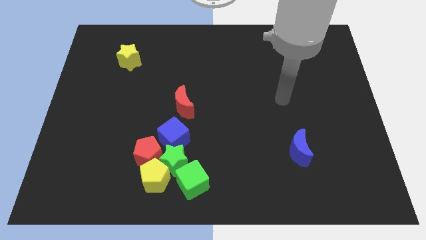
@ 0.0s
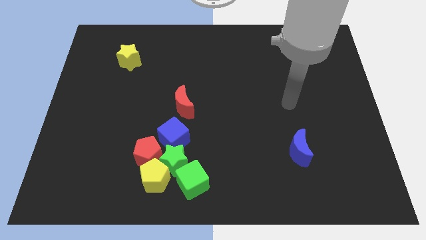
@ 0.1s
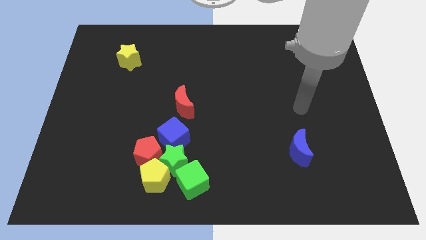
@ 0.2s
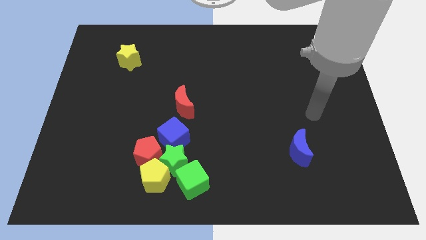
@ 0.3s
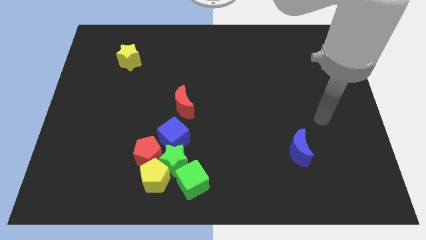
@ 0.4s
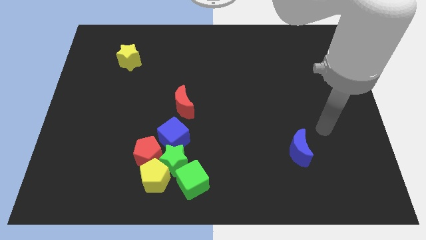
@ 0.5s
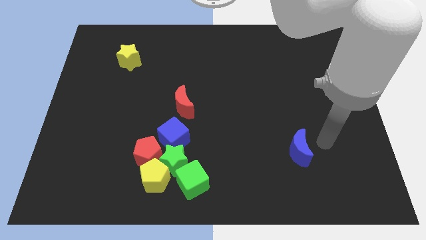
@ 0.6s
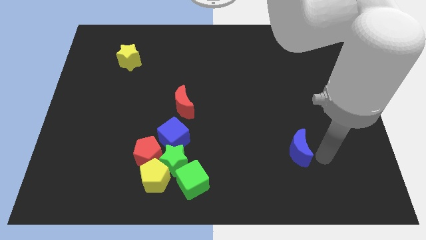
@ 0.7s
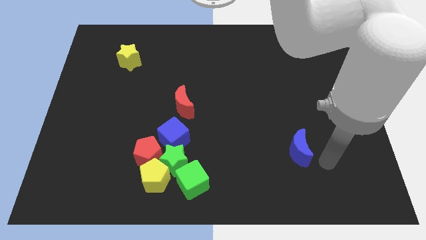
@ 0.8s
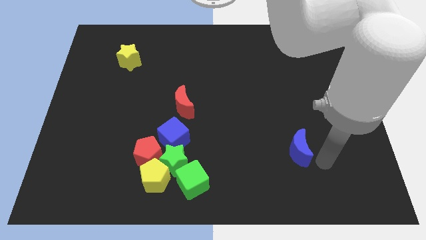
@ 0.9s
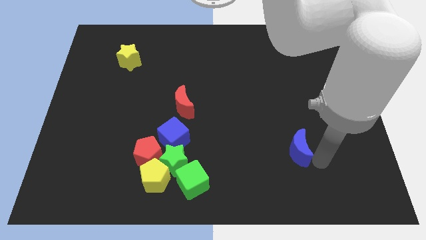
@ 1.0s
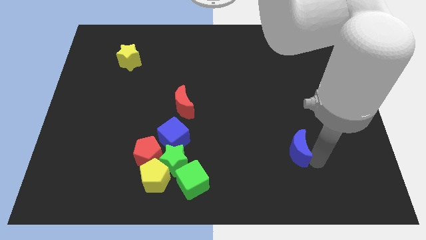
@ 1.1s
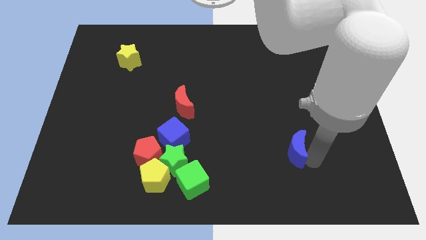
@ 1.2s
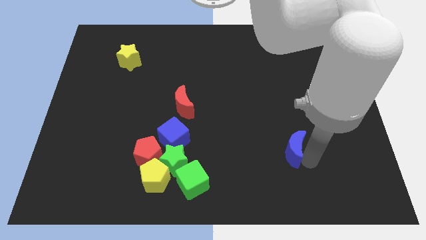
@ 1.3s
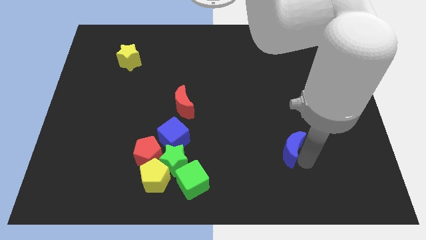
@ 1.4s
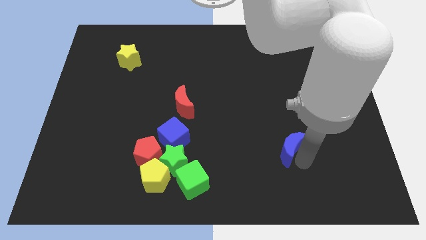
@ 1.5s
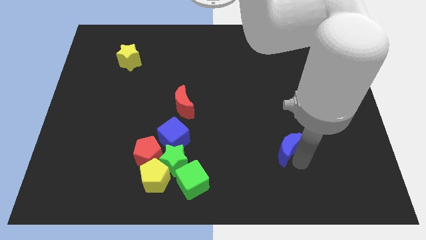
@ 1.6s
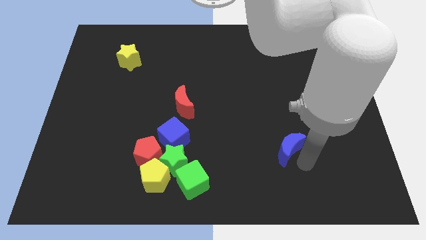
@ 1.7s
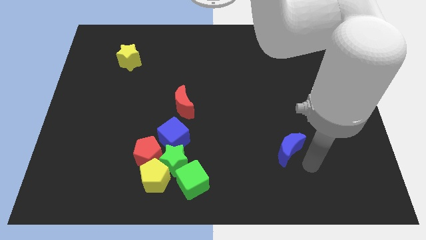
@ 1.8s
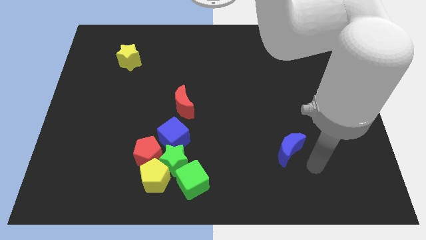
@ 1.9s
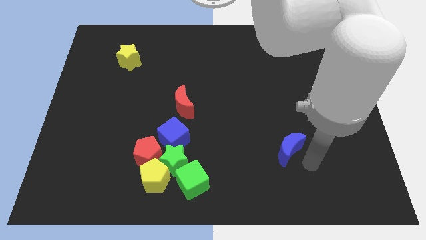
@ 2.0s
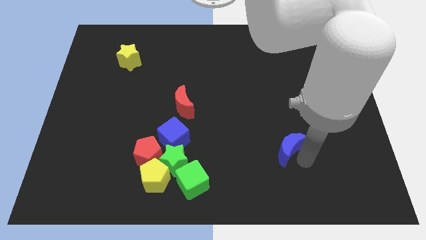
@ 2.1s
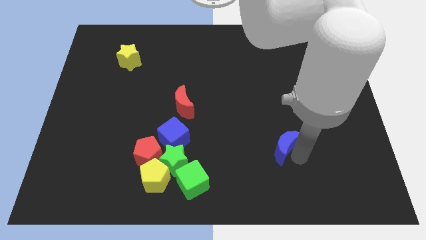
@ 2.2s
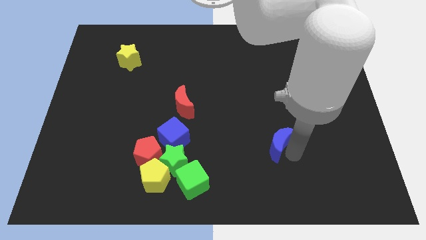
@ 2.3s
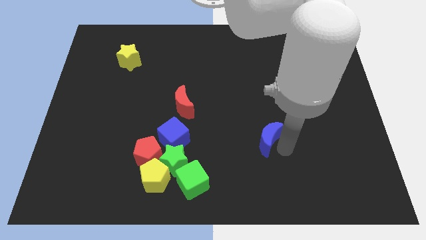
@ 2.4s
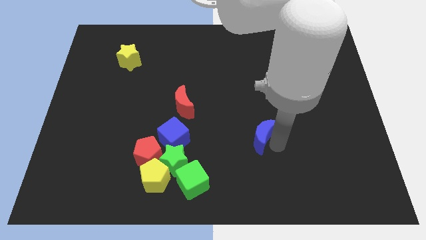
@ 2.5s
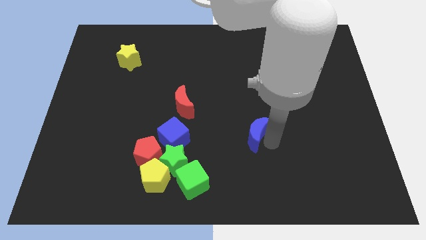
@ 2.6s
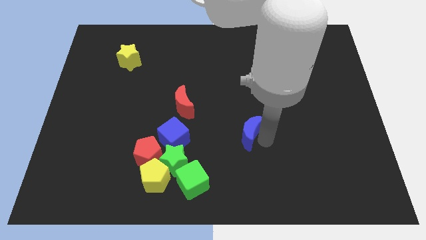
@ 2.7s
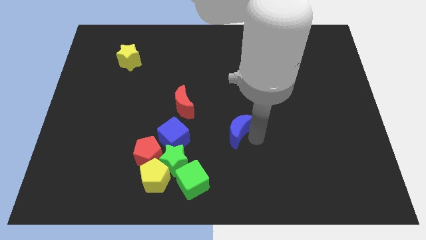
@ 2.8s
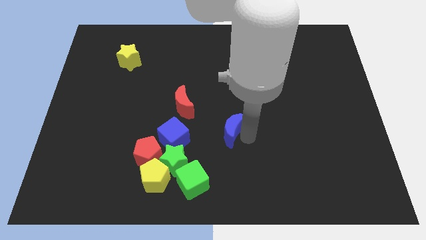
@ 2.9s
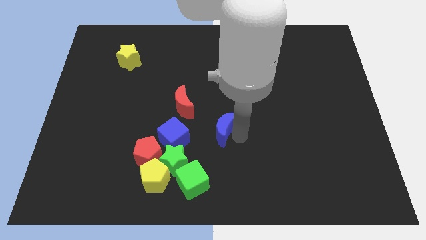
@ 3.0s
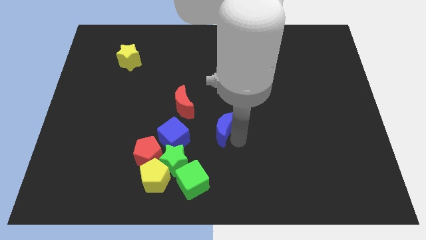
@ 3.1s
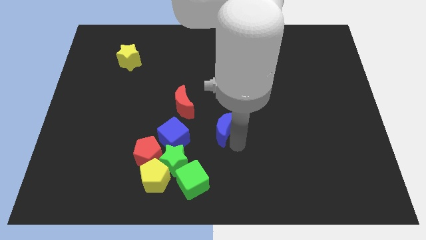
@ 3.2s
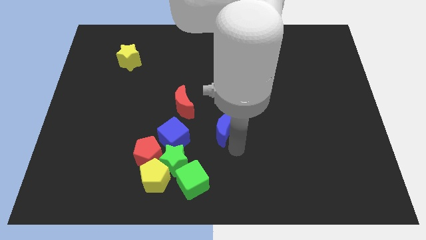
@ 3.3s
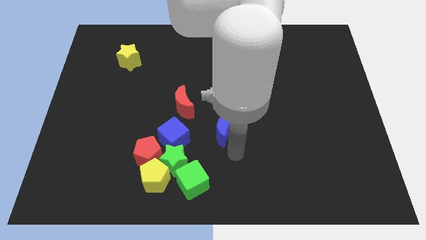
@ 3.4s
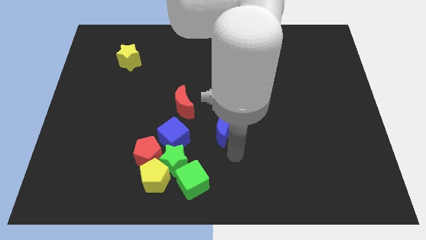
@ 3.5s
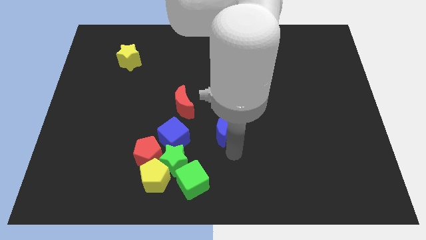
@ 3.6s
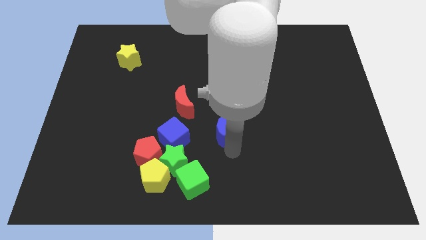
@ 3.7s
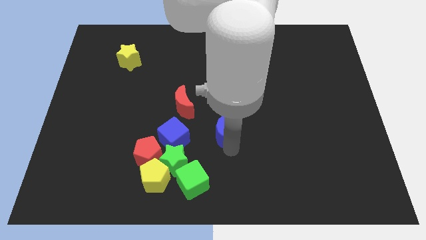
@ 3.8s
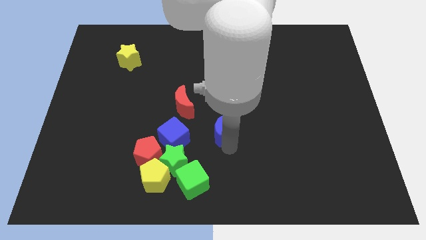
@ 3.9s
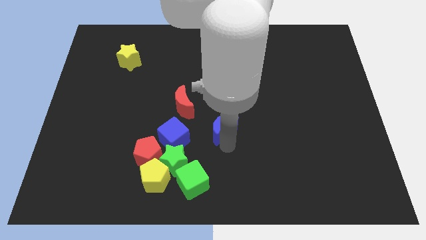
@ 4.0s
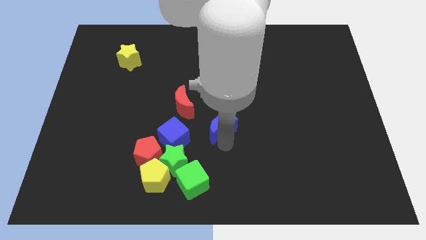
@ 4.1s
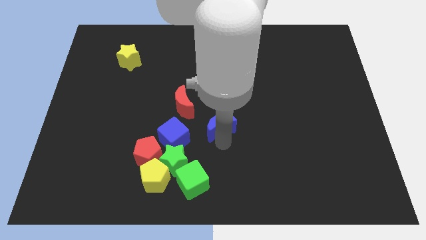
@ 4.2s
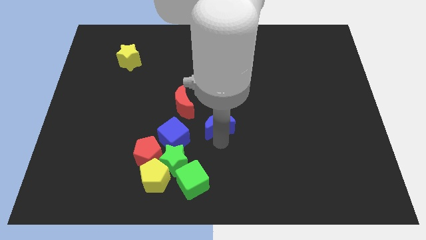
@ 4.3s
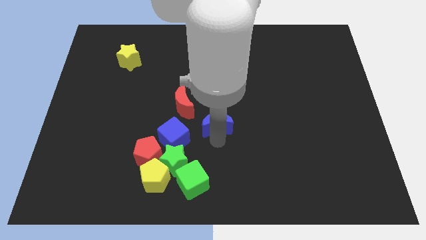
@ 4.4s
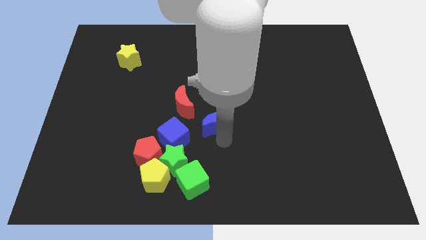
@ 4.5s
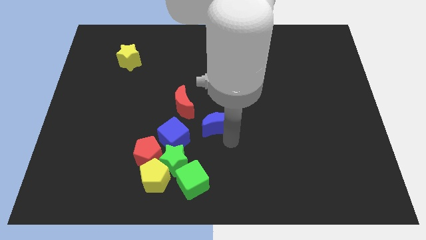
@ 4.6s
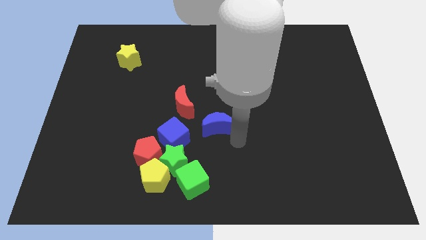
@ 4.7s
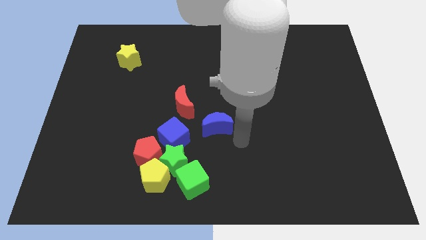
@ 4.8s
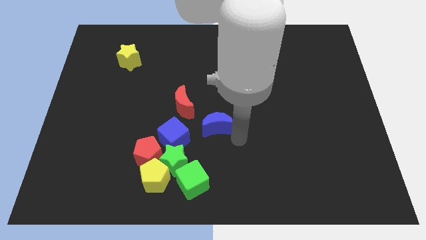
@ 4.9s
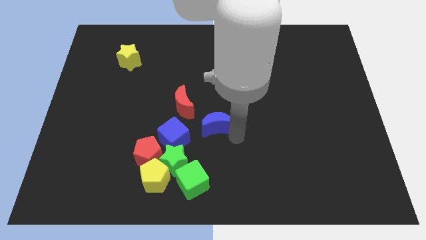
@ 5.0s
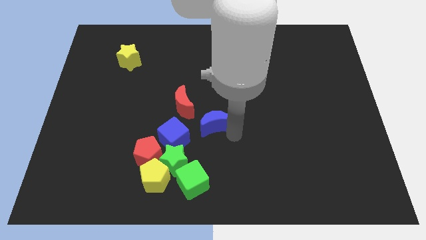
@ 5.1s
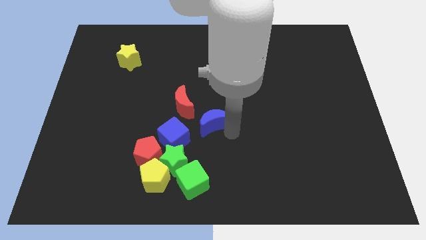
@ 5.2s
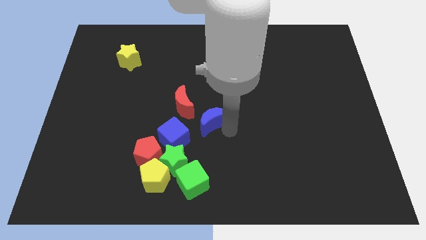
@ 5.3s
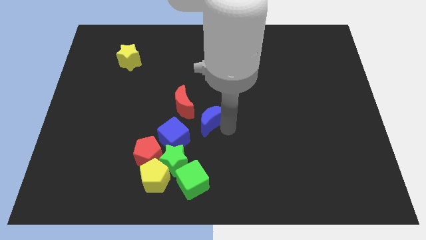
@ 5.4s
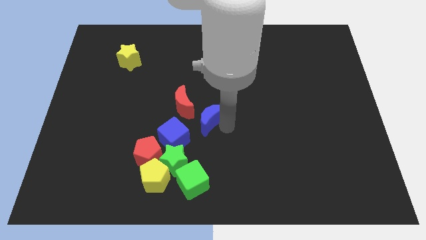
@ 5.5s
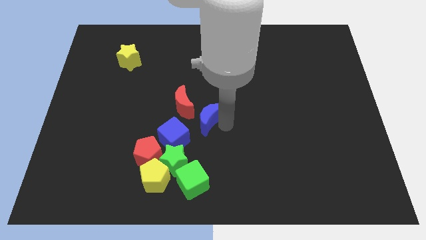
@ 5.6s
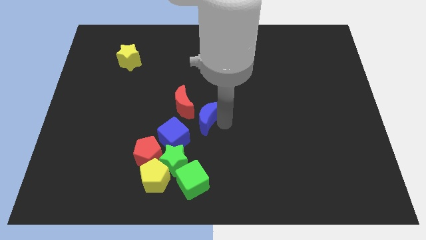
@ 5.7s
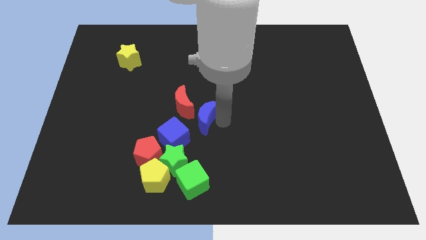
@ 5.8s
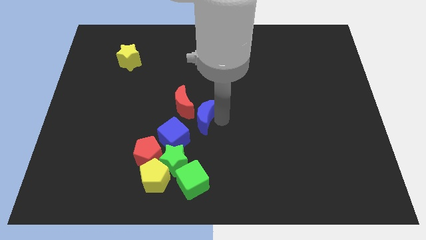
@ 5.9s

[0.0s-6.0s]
put the blue moon close to the red moon

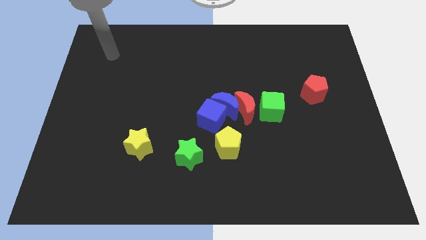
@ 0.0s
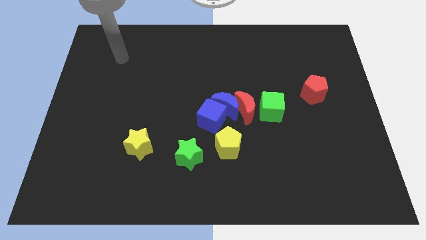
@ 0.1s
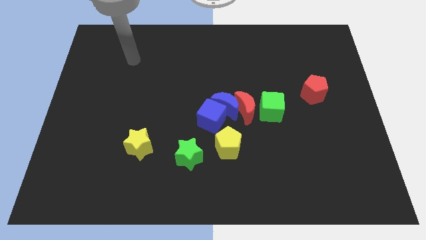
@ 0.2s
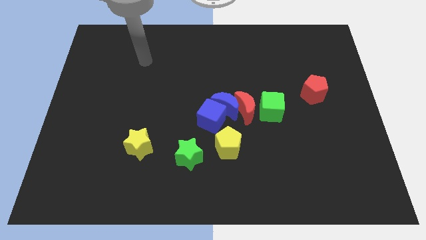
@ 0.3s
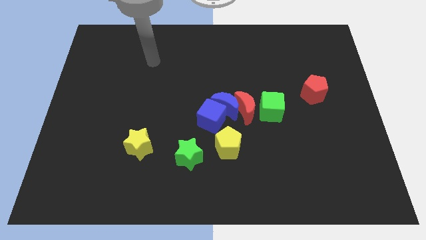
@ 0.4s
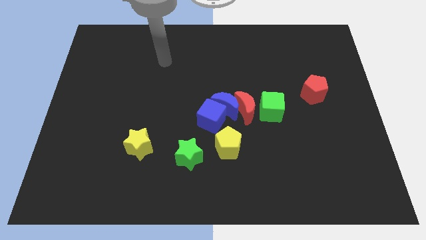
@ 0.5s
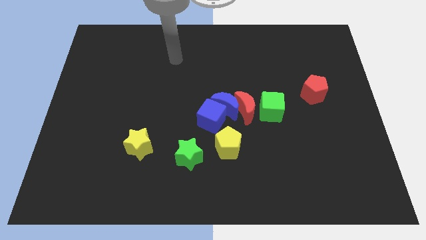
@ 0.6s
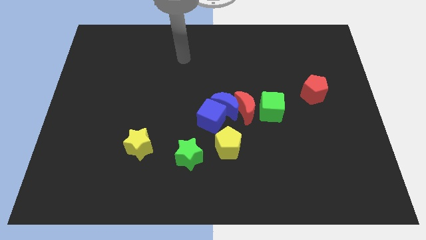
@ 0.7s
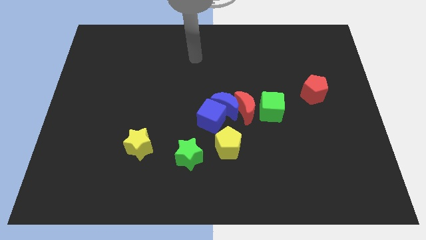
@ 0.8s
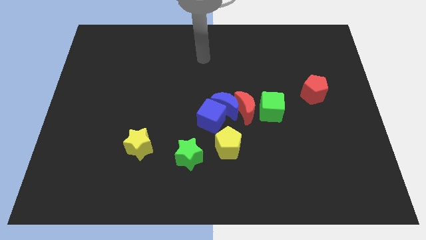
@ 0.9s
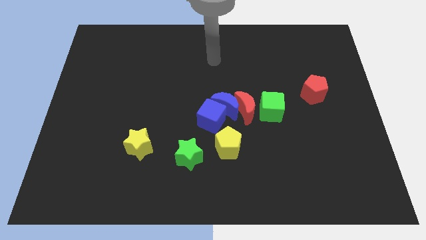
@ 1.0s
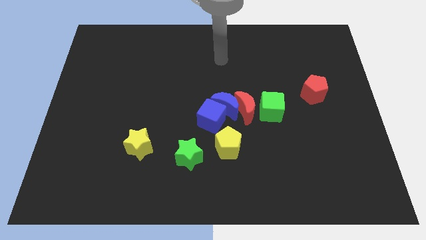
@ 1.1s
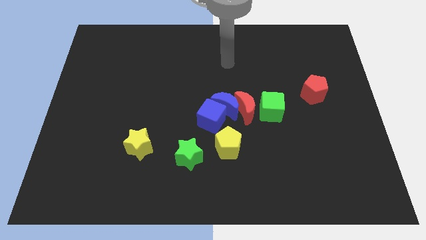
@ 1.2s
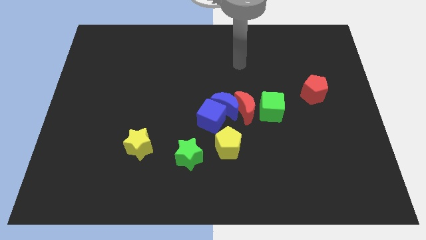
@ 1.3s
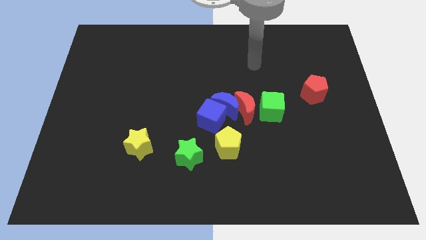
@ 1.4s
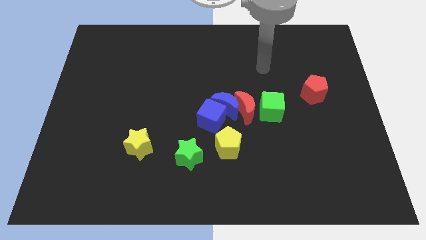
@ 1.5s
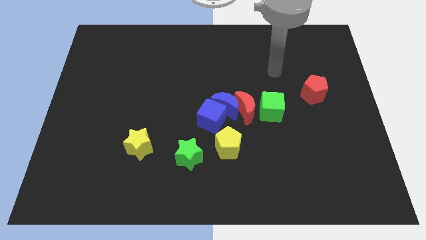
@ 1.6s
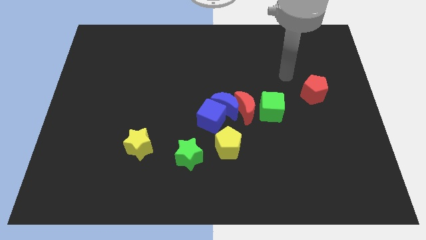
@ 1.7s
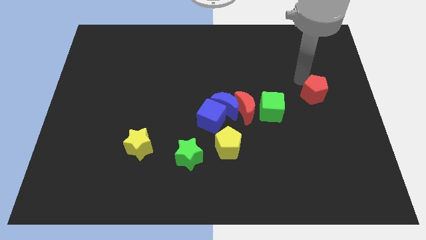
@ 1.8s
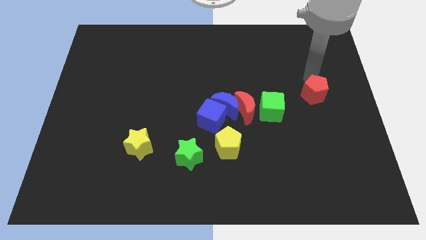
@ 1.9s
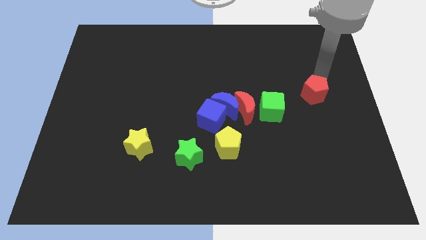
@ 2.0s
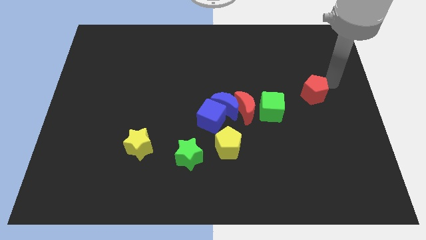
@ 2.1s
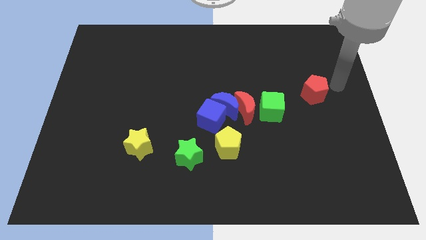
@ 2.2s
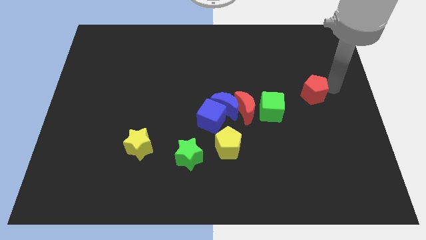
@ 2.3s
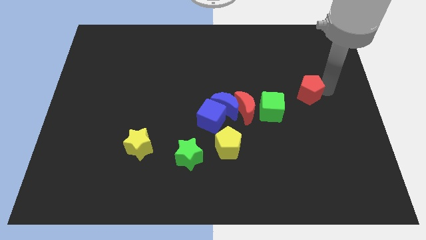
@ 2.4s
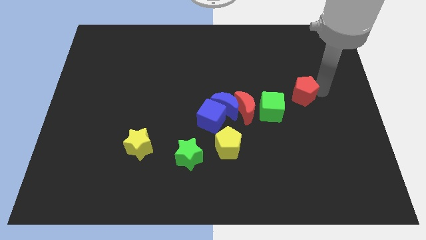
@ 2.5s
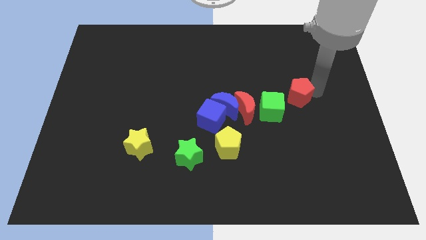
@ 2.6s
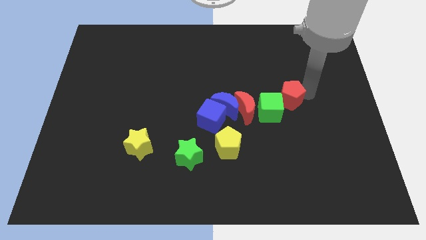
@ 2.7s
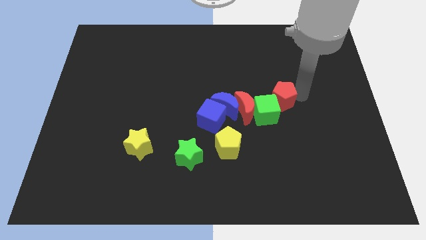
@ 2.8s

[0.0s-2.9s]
slide the red pentagon towards the green cube
